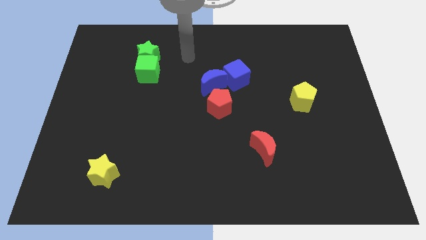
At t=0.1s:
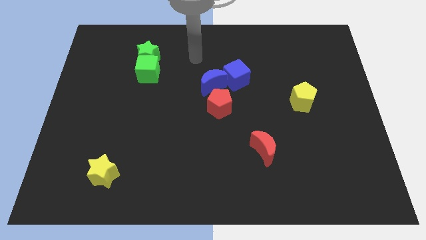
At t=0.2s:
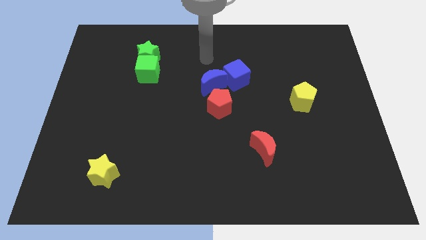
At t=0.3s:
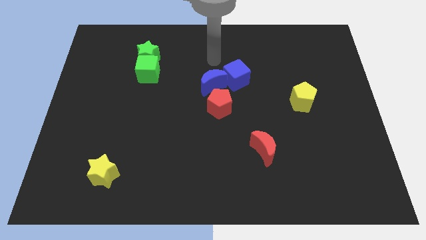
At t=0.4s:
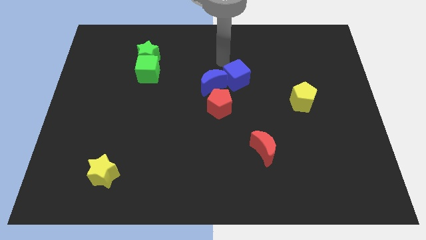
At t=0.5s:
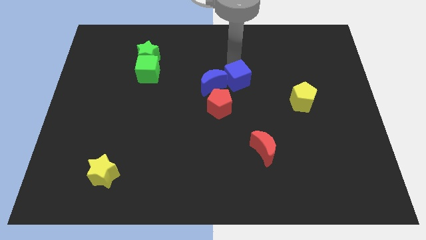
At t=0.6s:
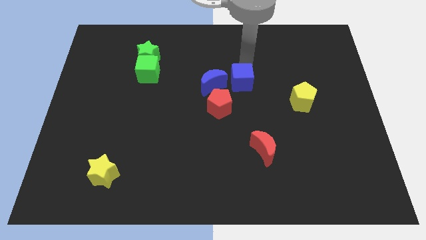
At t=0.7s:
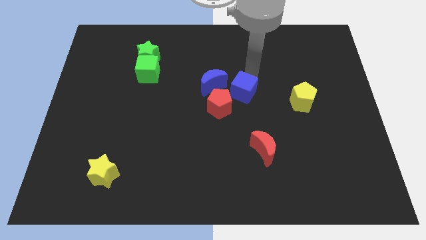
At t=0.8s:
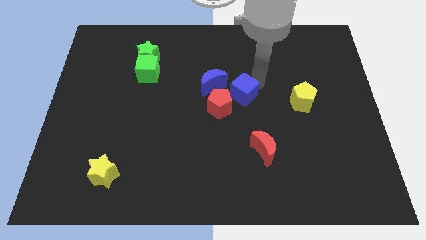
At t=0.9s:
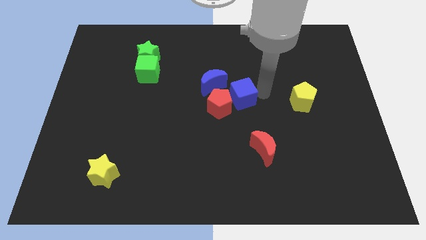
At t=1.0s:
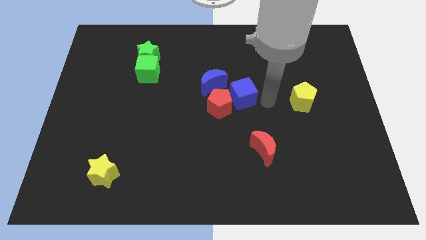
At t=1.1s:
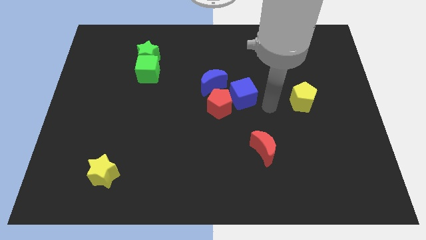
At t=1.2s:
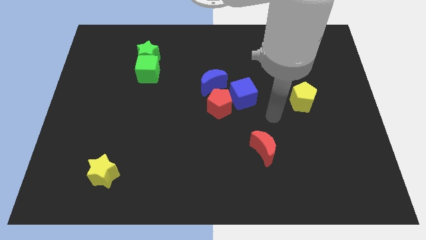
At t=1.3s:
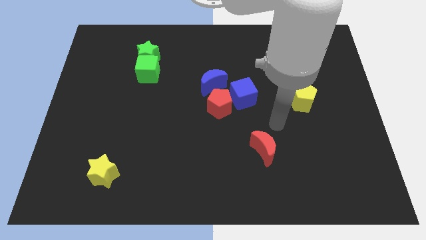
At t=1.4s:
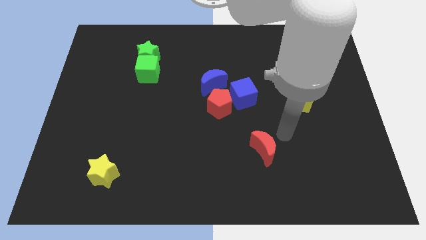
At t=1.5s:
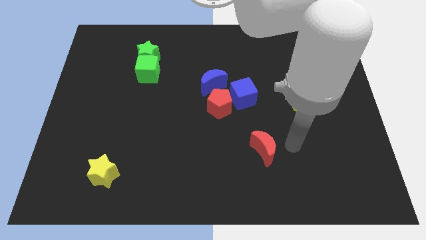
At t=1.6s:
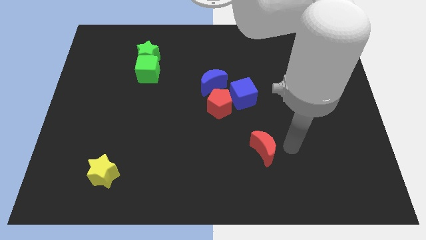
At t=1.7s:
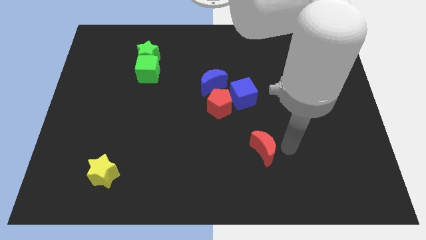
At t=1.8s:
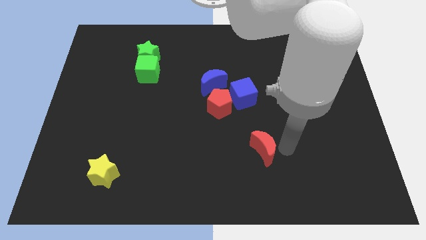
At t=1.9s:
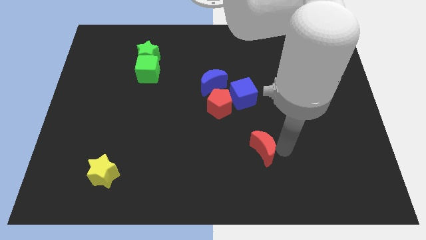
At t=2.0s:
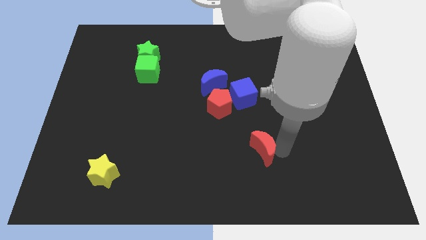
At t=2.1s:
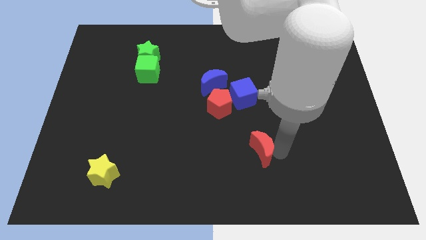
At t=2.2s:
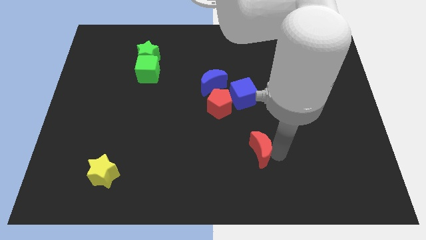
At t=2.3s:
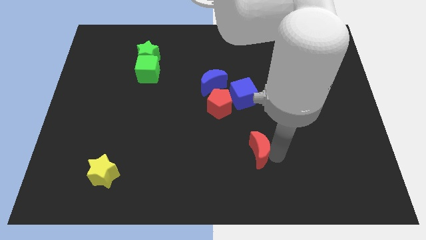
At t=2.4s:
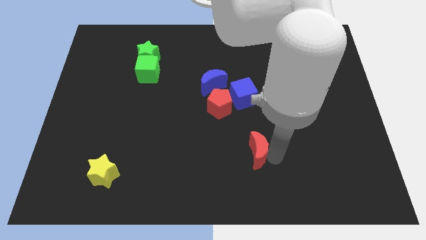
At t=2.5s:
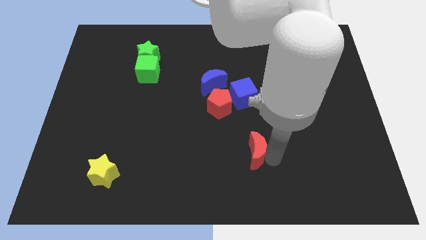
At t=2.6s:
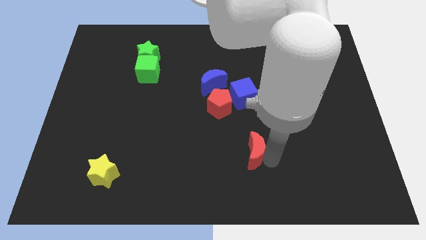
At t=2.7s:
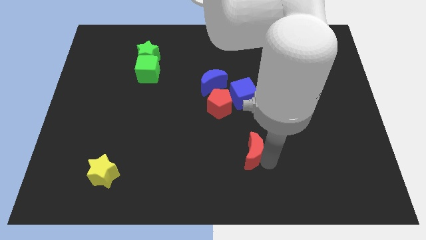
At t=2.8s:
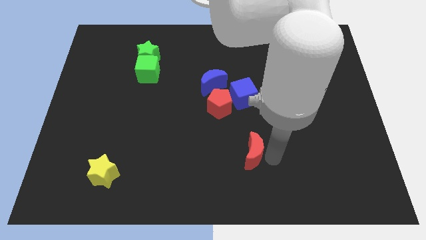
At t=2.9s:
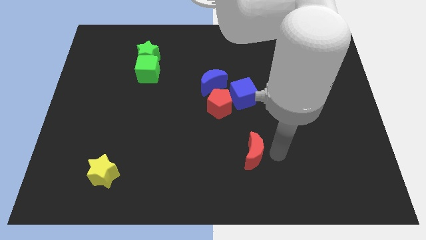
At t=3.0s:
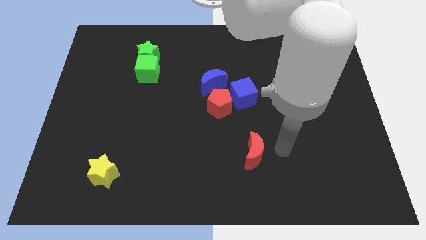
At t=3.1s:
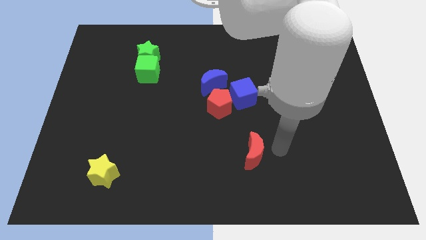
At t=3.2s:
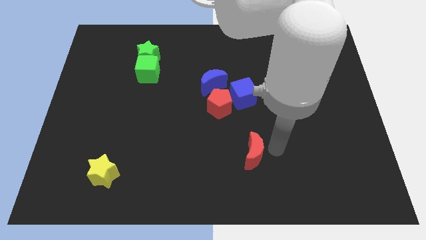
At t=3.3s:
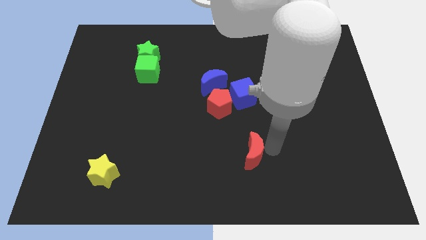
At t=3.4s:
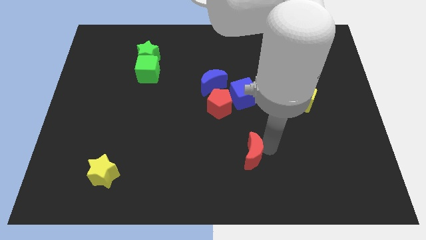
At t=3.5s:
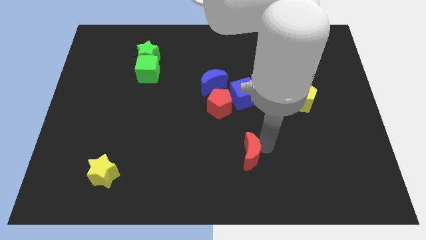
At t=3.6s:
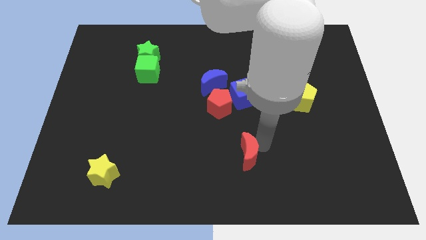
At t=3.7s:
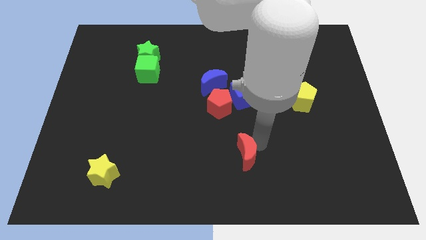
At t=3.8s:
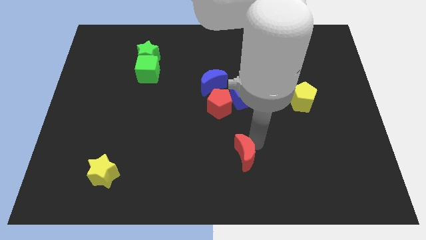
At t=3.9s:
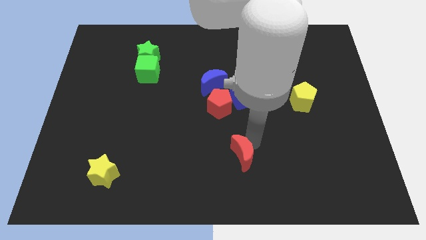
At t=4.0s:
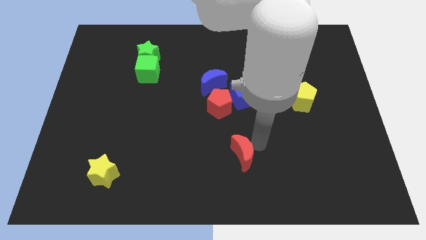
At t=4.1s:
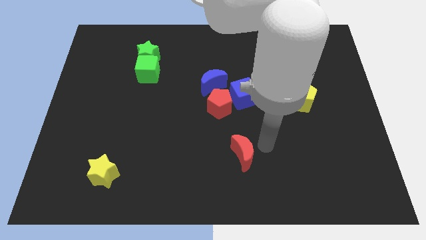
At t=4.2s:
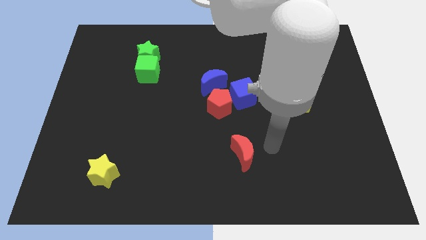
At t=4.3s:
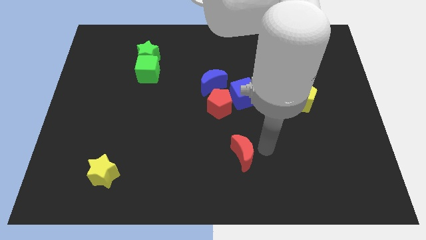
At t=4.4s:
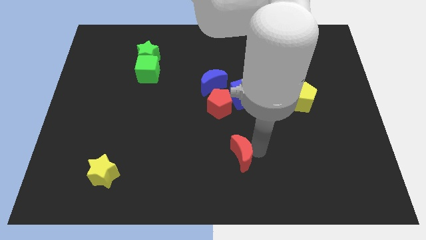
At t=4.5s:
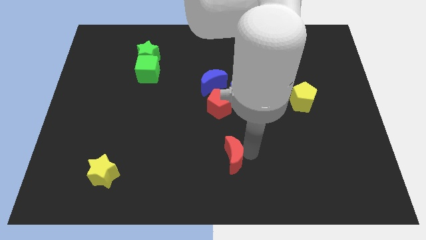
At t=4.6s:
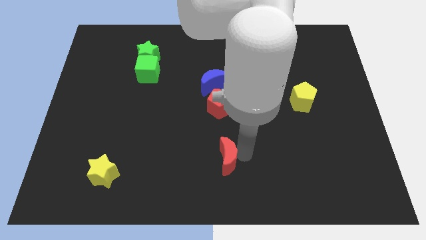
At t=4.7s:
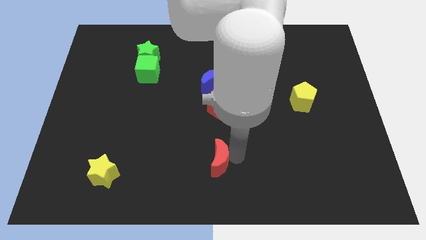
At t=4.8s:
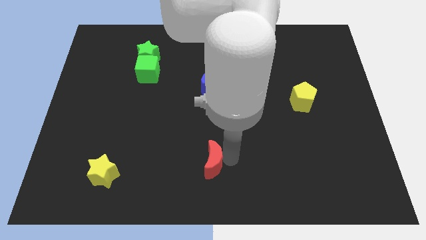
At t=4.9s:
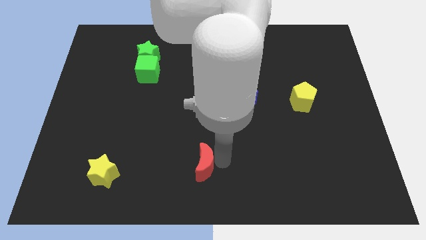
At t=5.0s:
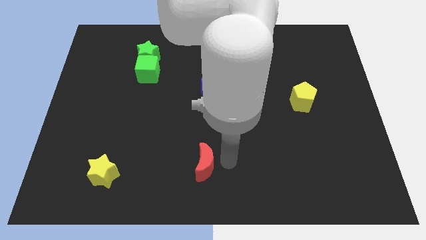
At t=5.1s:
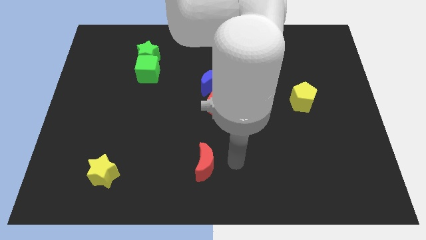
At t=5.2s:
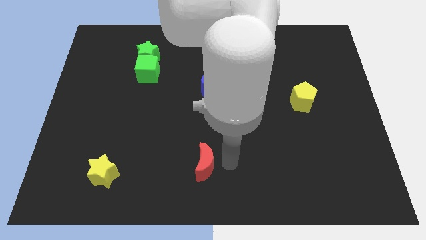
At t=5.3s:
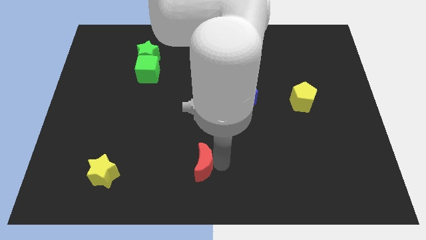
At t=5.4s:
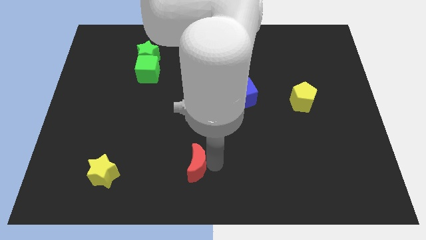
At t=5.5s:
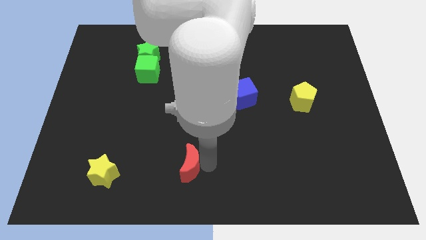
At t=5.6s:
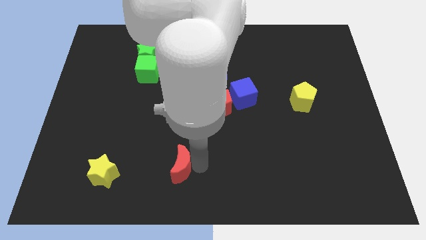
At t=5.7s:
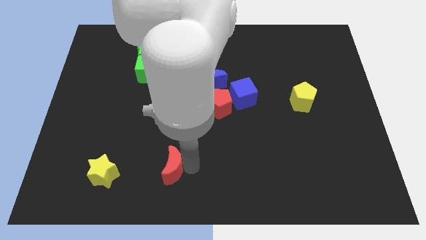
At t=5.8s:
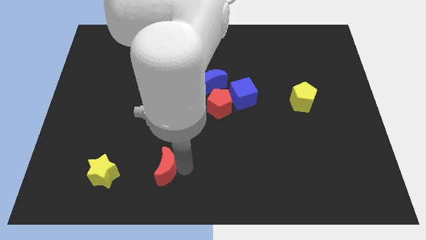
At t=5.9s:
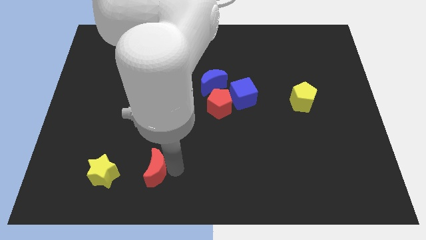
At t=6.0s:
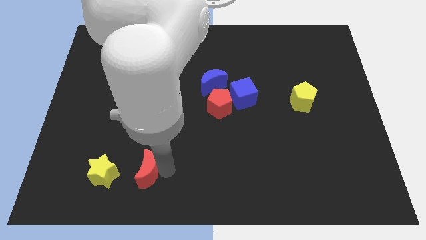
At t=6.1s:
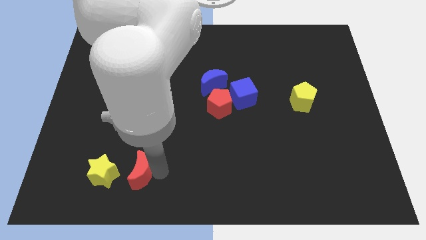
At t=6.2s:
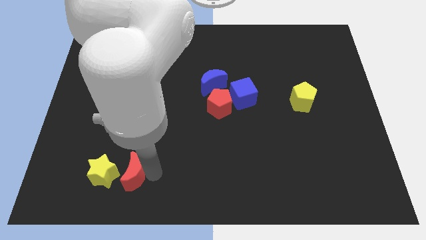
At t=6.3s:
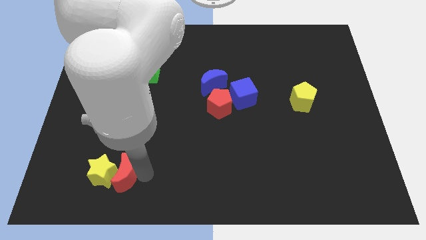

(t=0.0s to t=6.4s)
move the red moon towards the yellow star
